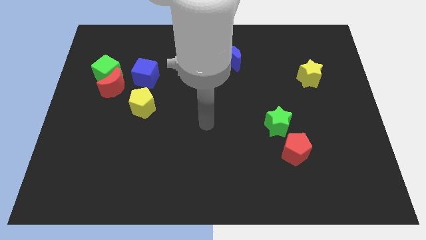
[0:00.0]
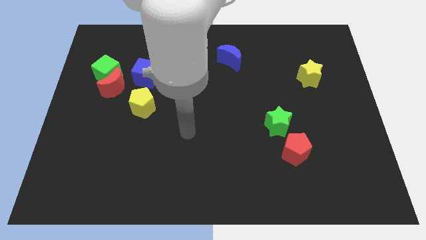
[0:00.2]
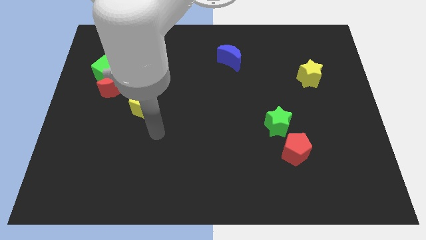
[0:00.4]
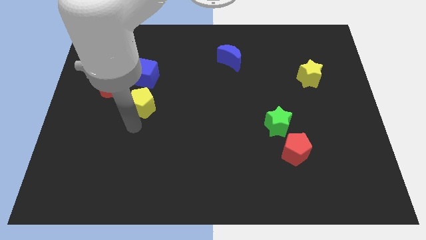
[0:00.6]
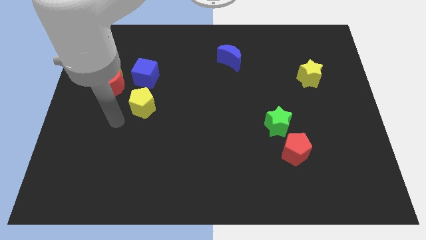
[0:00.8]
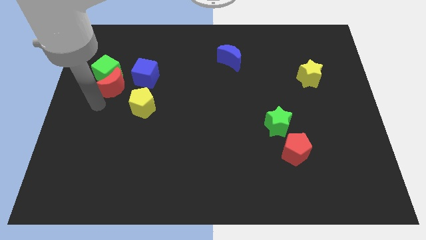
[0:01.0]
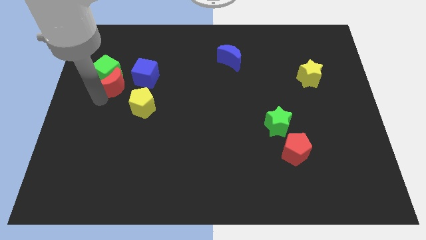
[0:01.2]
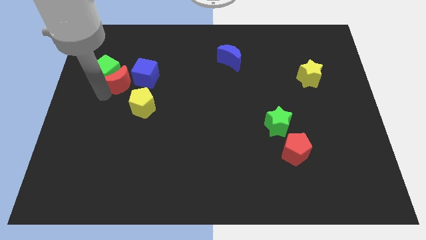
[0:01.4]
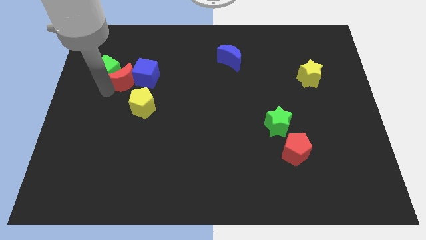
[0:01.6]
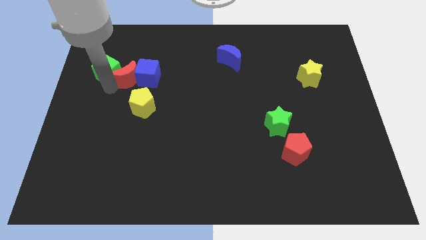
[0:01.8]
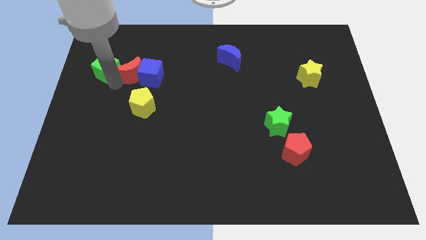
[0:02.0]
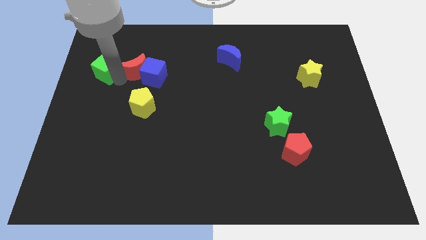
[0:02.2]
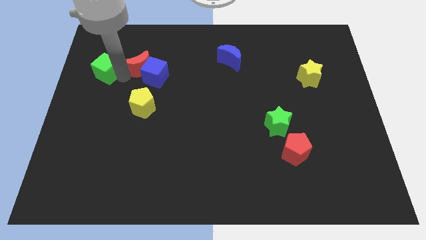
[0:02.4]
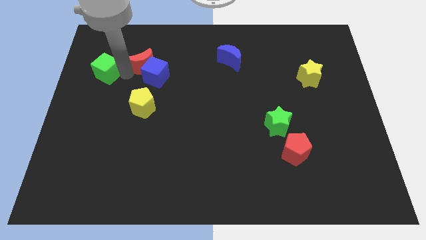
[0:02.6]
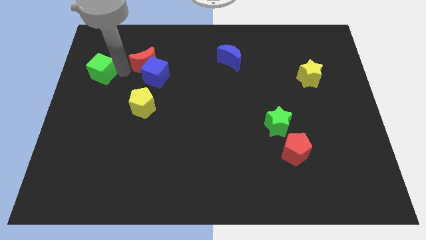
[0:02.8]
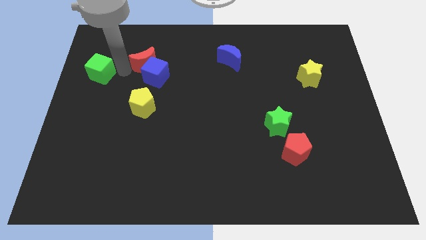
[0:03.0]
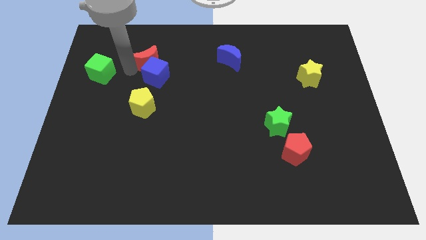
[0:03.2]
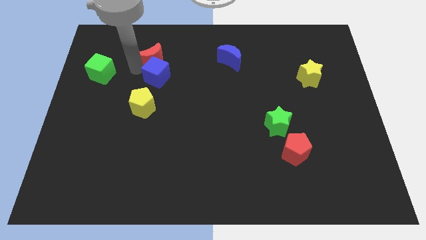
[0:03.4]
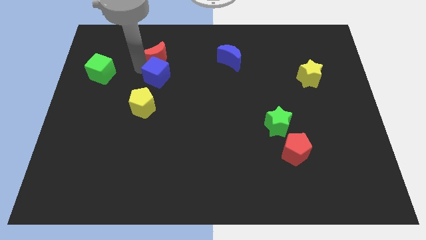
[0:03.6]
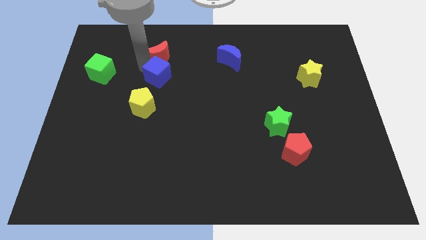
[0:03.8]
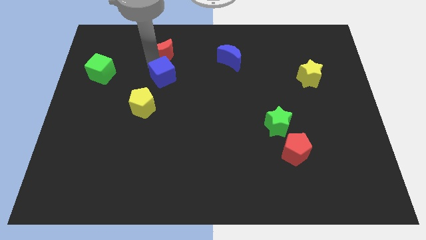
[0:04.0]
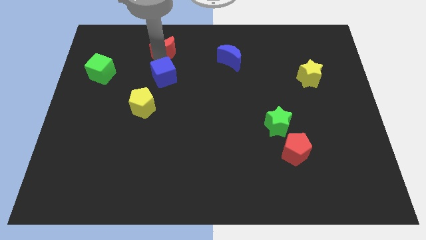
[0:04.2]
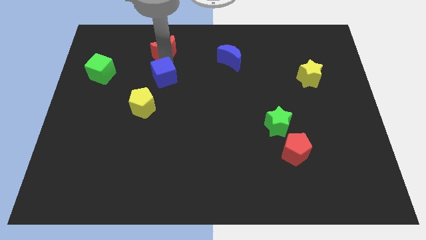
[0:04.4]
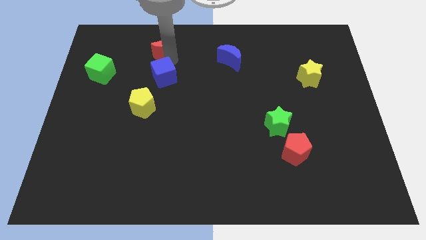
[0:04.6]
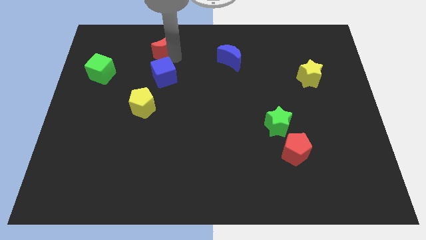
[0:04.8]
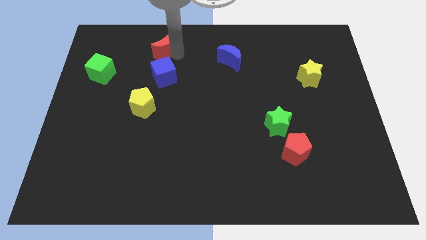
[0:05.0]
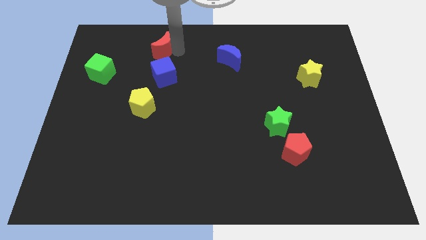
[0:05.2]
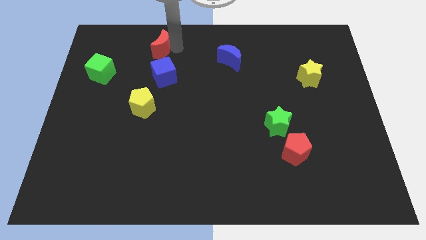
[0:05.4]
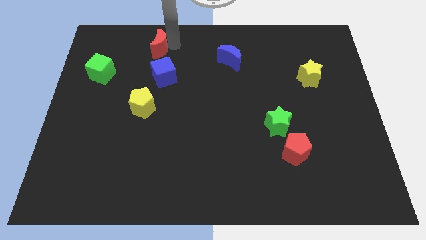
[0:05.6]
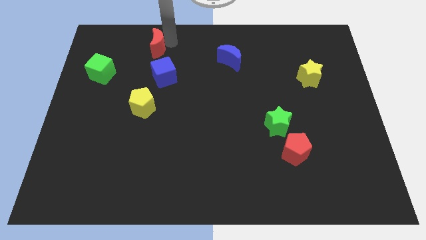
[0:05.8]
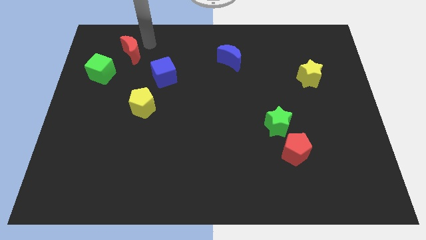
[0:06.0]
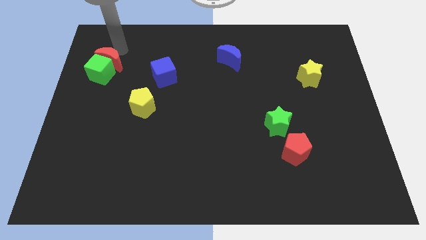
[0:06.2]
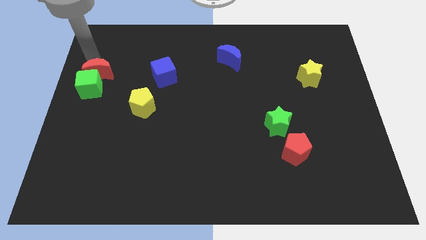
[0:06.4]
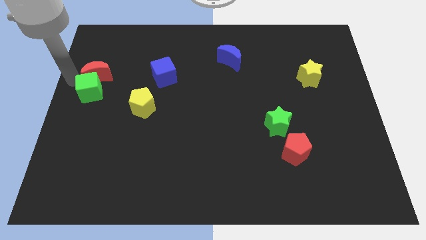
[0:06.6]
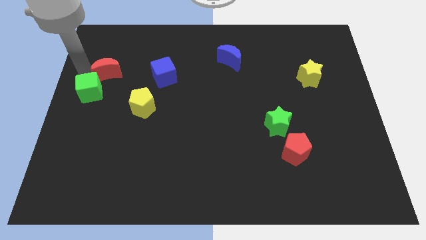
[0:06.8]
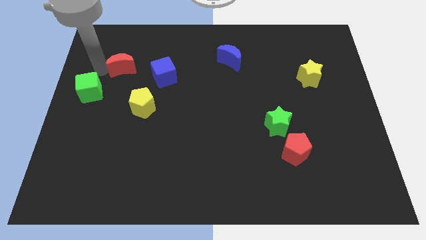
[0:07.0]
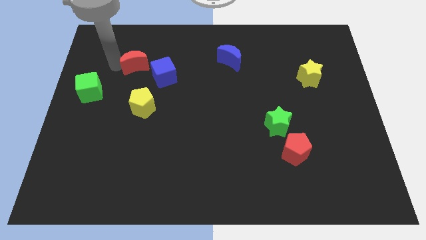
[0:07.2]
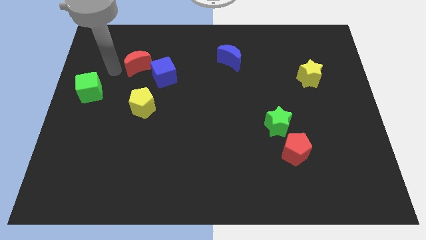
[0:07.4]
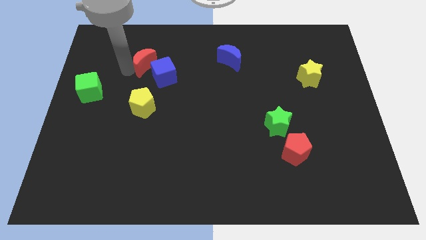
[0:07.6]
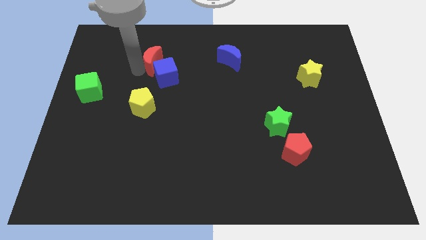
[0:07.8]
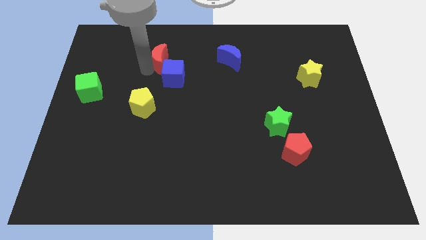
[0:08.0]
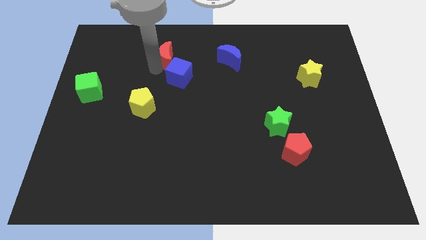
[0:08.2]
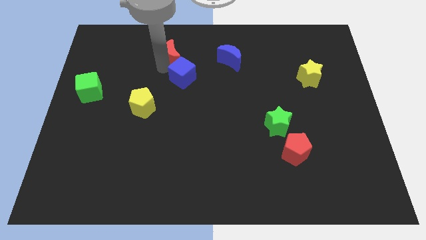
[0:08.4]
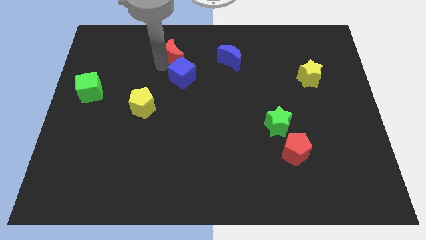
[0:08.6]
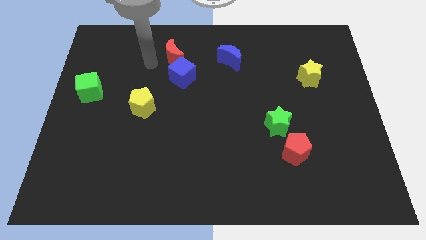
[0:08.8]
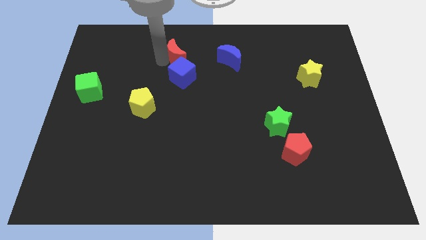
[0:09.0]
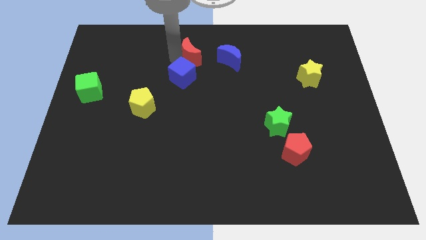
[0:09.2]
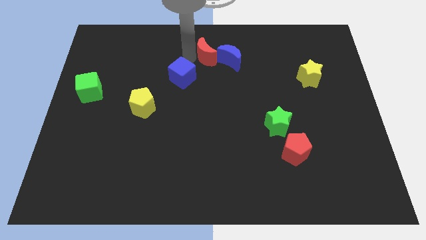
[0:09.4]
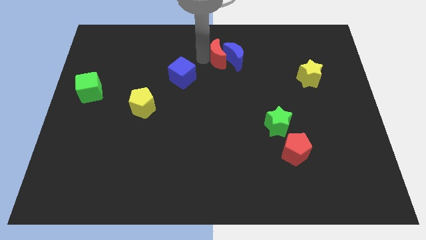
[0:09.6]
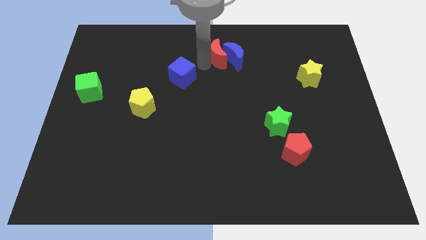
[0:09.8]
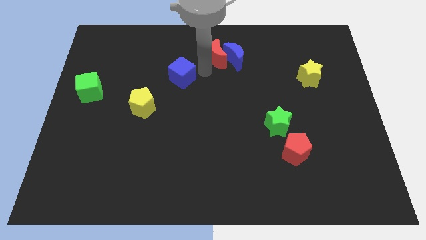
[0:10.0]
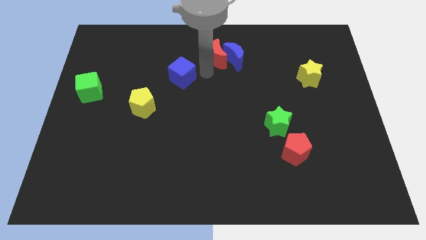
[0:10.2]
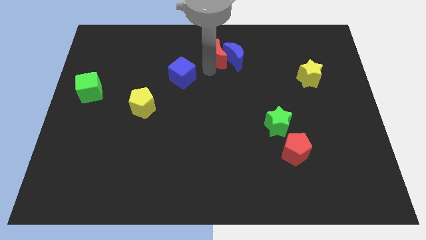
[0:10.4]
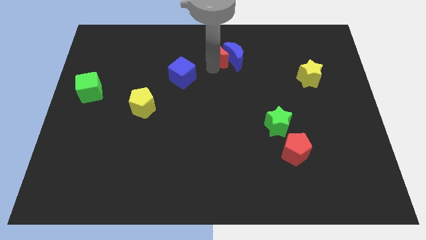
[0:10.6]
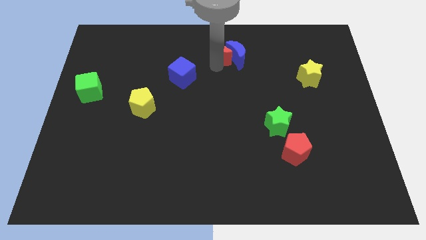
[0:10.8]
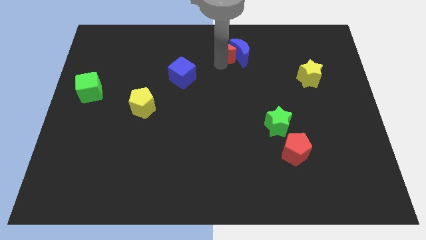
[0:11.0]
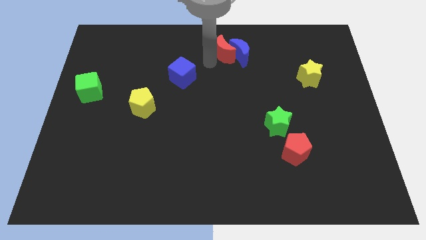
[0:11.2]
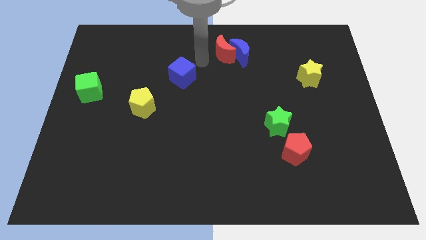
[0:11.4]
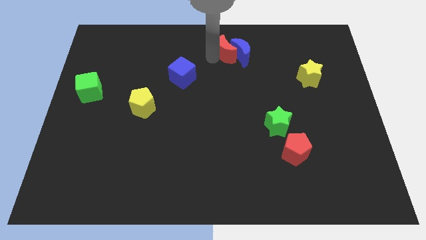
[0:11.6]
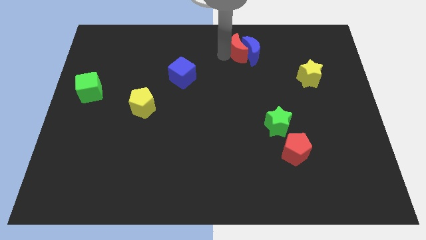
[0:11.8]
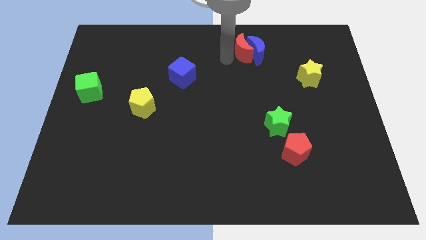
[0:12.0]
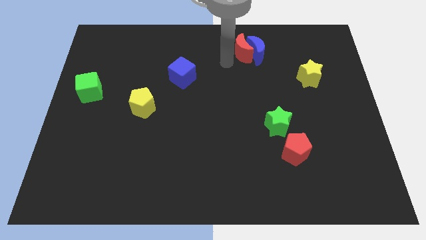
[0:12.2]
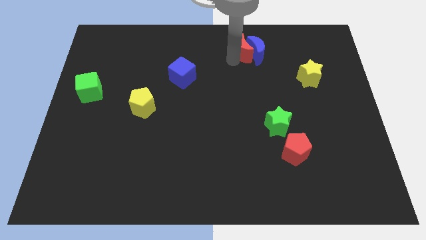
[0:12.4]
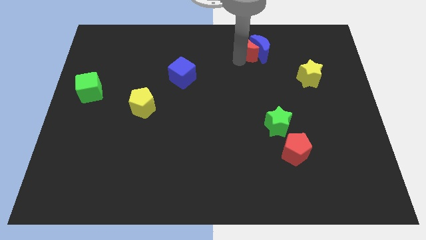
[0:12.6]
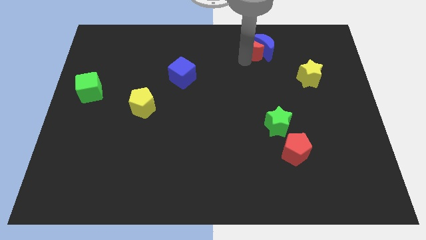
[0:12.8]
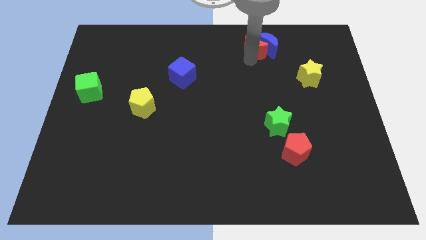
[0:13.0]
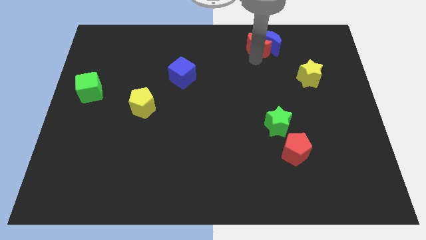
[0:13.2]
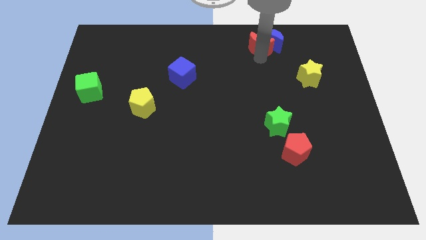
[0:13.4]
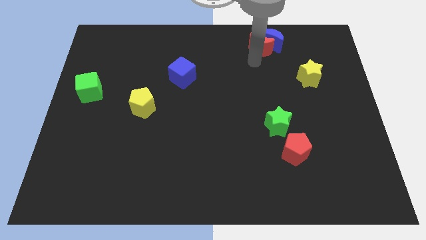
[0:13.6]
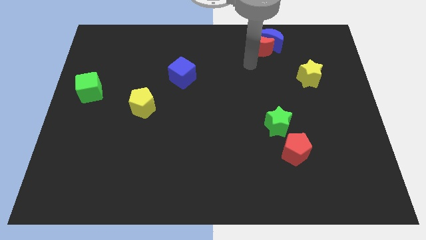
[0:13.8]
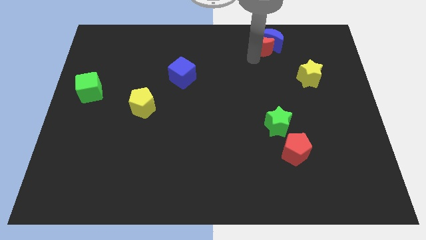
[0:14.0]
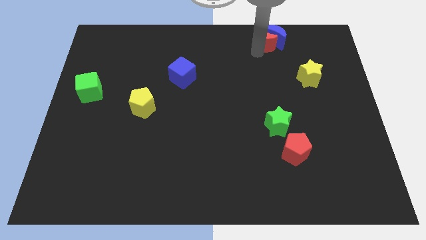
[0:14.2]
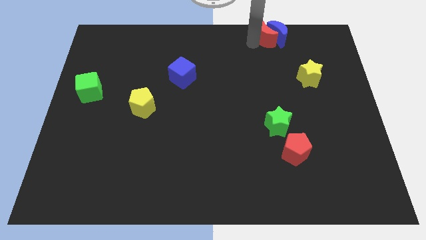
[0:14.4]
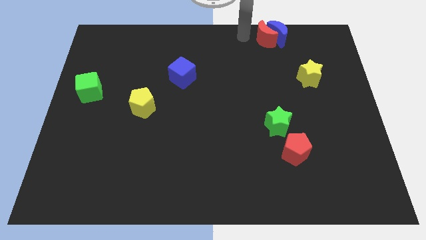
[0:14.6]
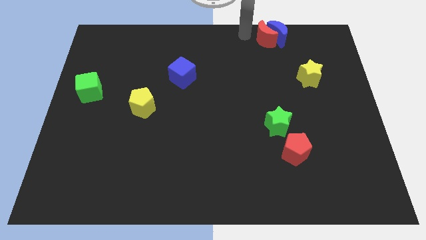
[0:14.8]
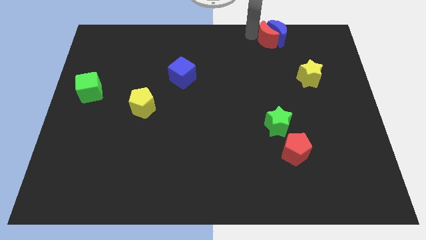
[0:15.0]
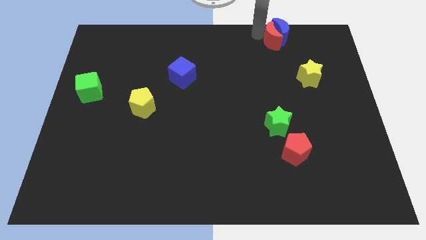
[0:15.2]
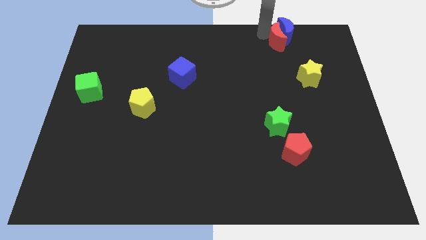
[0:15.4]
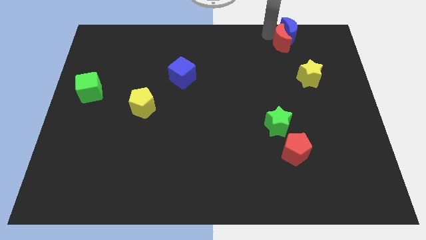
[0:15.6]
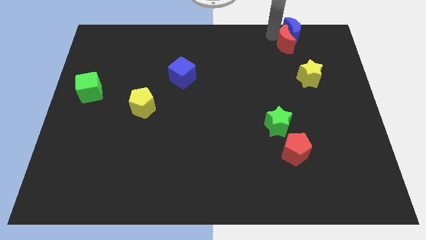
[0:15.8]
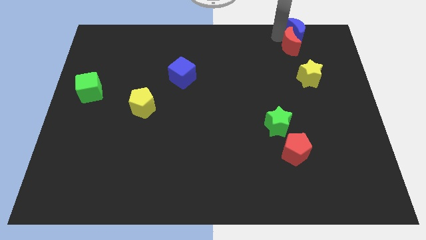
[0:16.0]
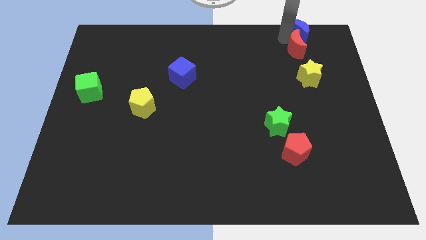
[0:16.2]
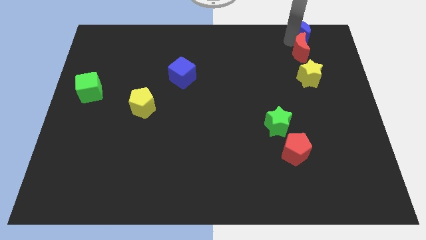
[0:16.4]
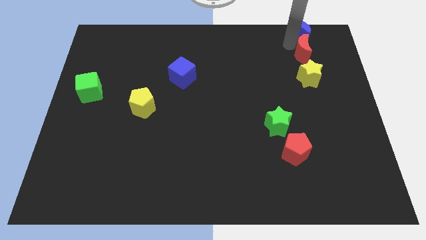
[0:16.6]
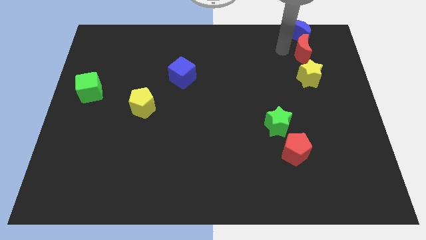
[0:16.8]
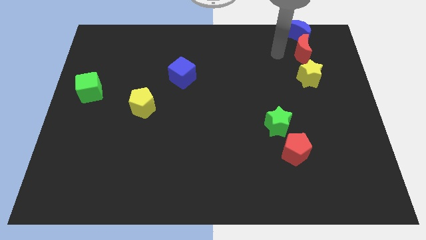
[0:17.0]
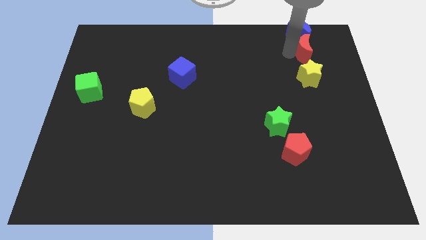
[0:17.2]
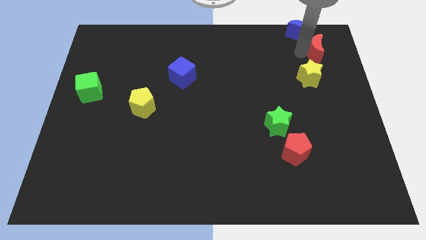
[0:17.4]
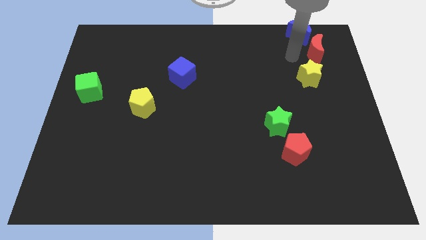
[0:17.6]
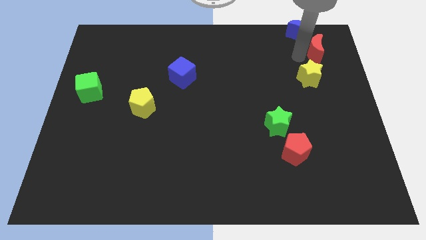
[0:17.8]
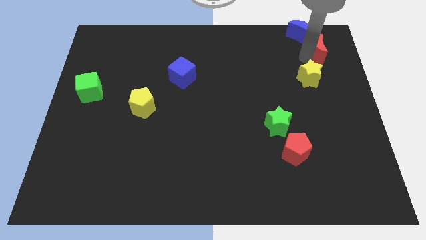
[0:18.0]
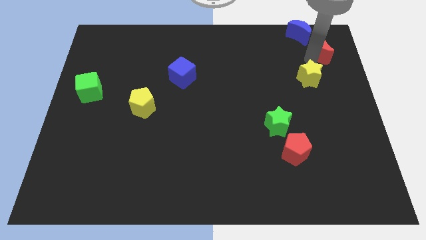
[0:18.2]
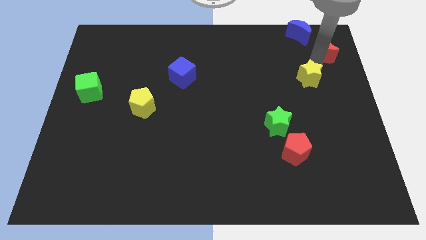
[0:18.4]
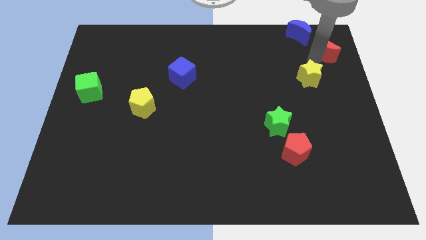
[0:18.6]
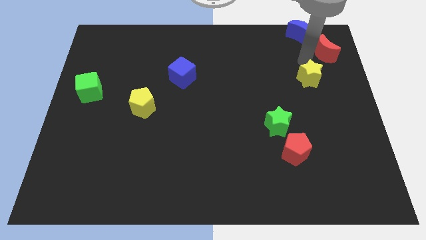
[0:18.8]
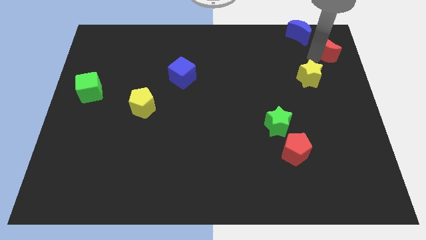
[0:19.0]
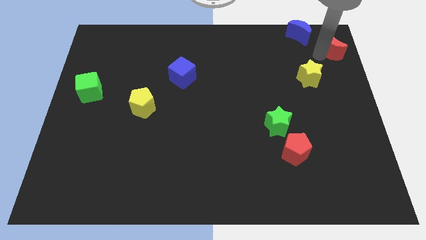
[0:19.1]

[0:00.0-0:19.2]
move the red moon to the top right of the board
